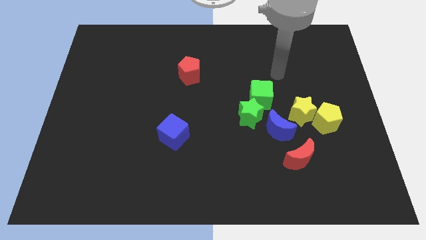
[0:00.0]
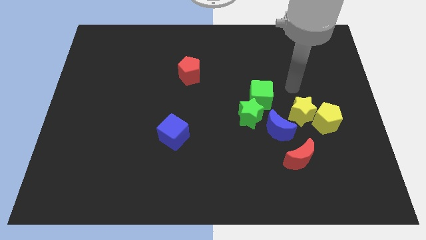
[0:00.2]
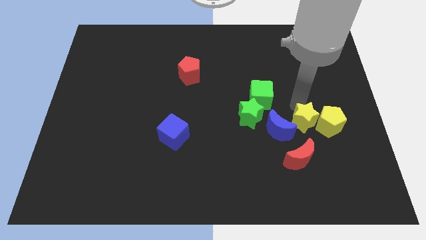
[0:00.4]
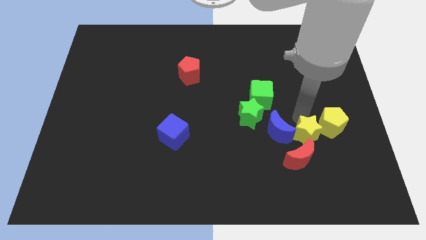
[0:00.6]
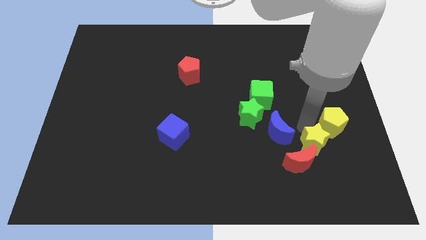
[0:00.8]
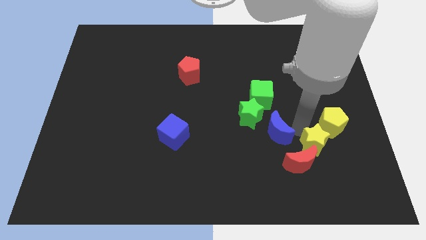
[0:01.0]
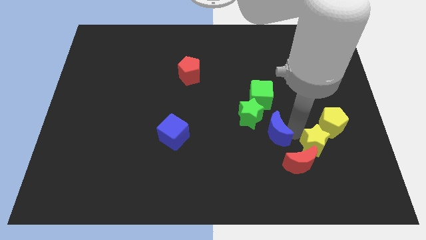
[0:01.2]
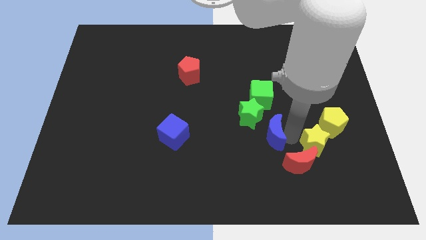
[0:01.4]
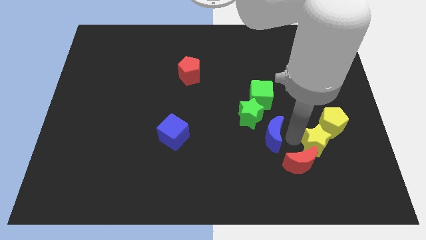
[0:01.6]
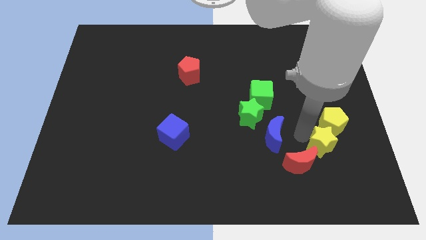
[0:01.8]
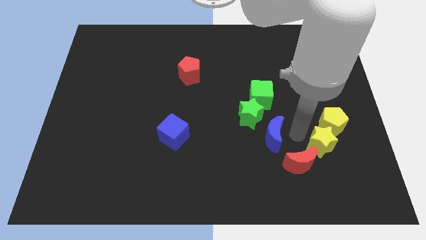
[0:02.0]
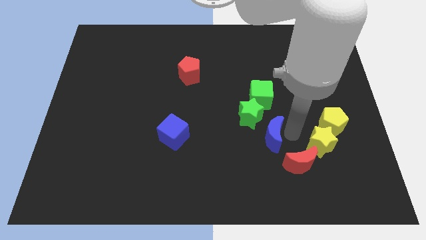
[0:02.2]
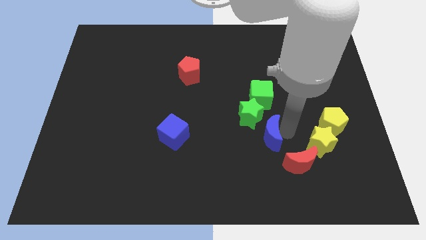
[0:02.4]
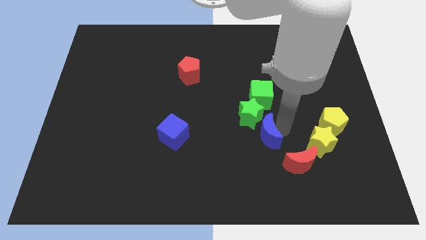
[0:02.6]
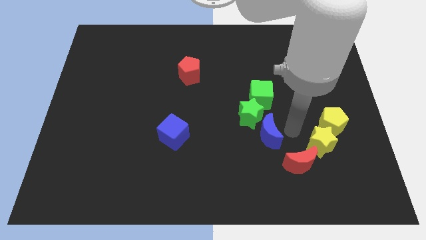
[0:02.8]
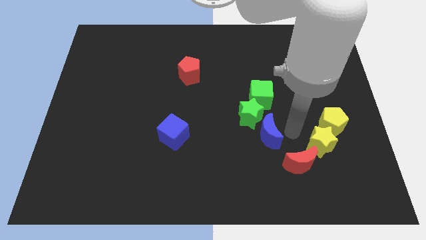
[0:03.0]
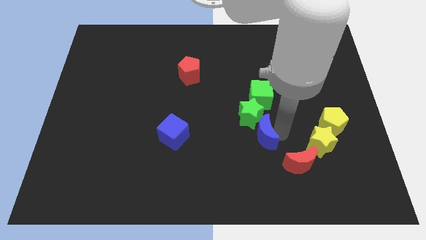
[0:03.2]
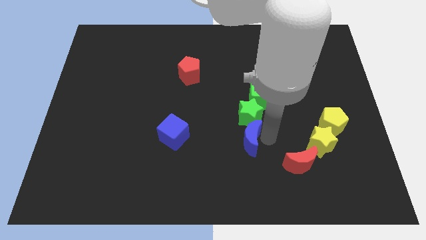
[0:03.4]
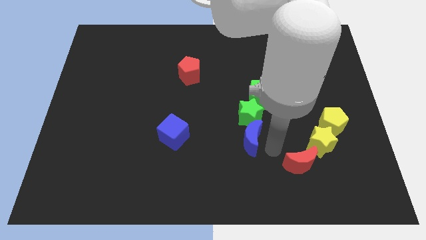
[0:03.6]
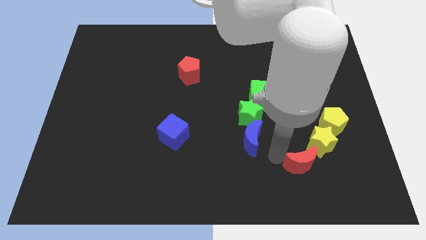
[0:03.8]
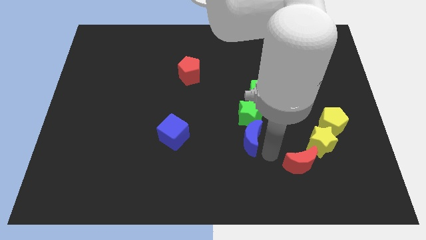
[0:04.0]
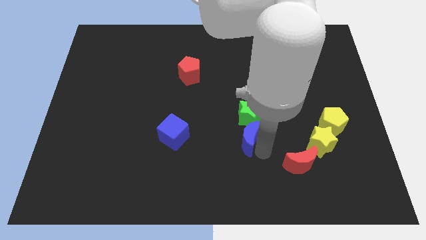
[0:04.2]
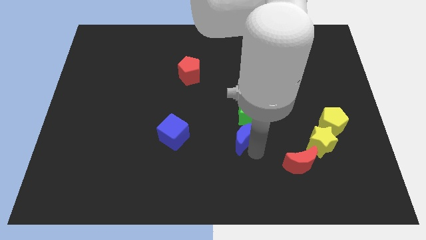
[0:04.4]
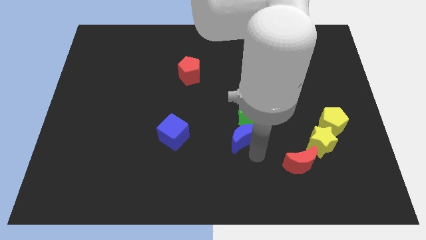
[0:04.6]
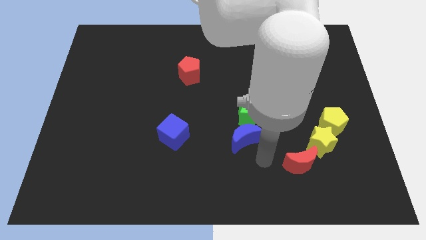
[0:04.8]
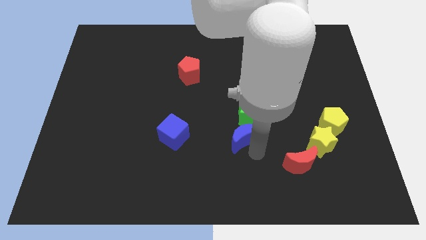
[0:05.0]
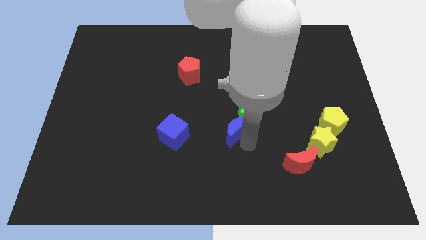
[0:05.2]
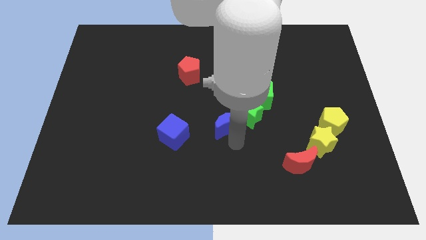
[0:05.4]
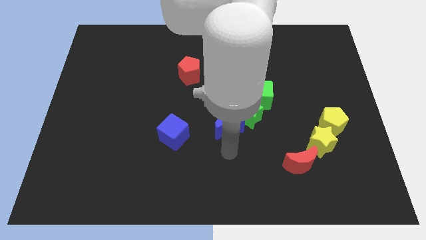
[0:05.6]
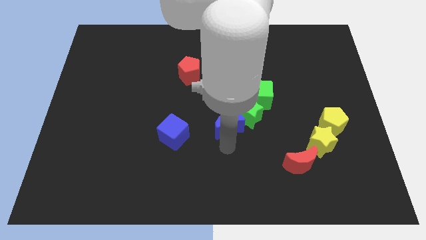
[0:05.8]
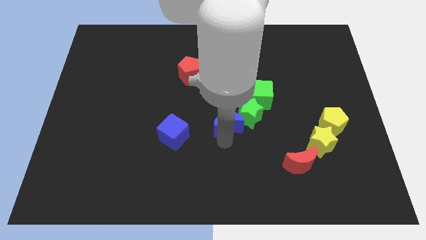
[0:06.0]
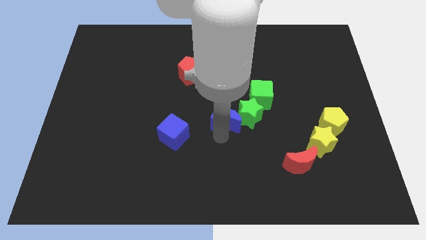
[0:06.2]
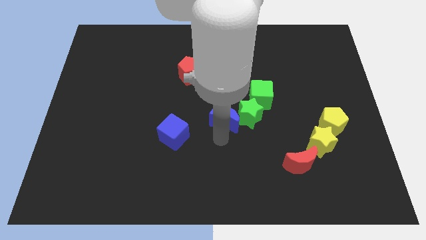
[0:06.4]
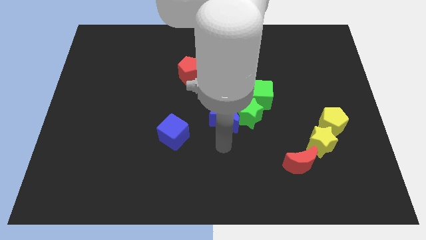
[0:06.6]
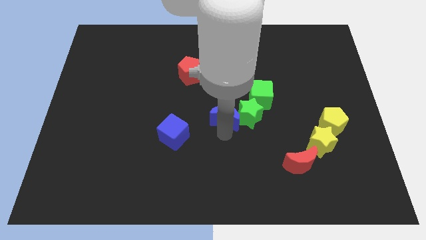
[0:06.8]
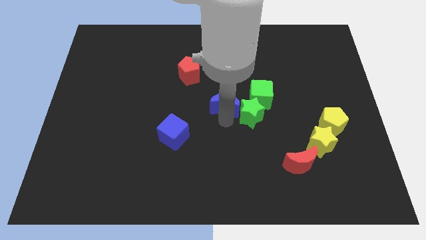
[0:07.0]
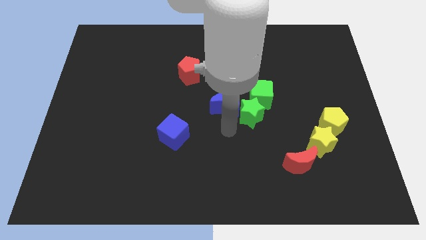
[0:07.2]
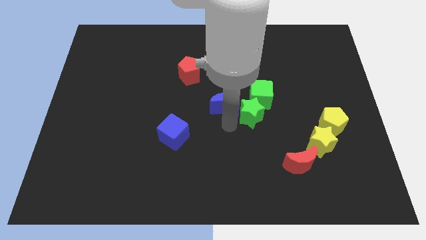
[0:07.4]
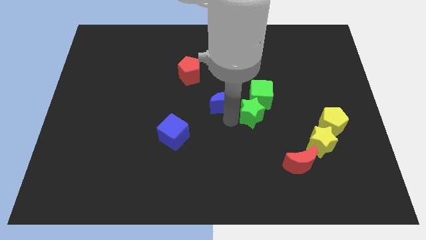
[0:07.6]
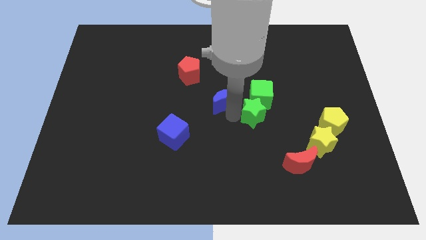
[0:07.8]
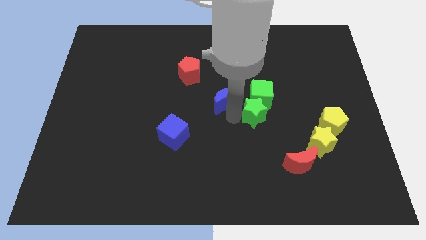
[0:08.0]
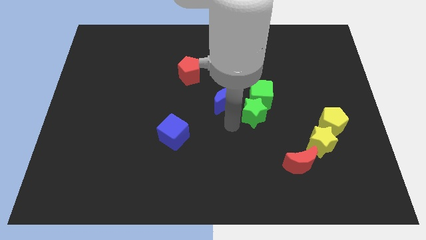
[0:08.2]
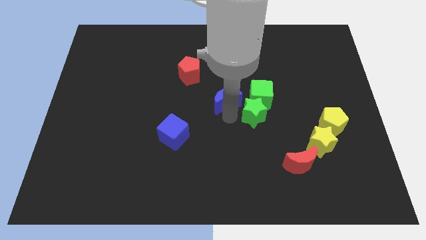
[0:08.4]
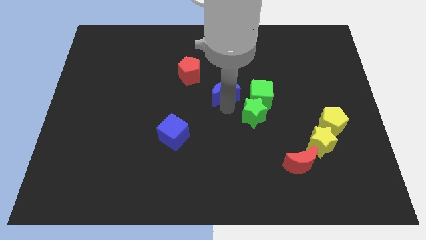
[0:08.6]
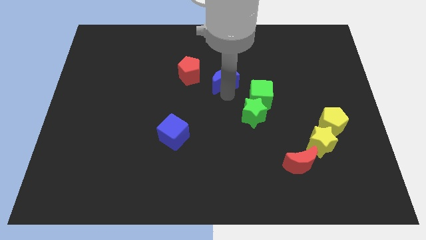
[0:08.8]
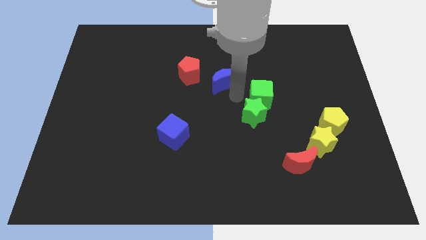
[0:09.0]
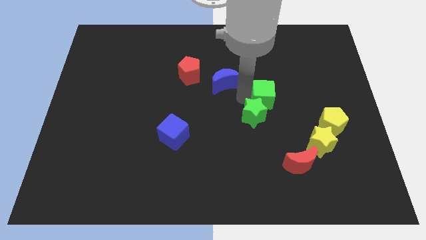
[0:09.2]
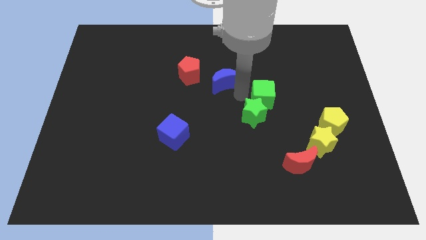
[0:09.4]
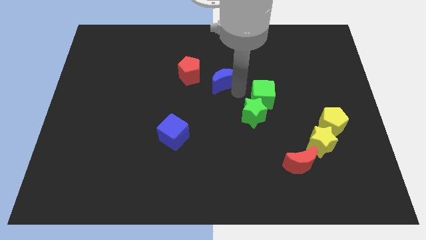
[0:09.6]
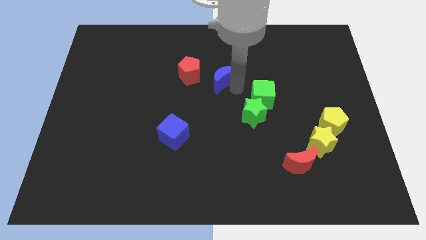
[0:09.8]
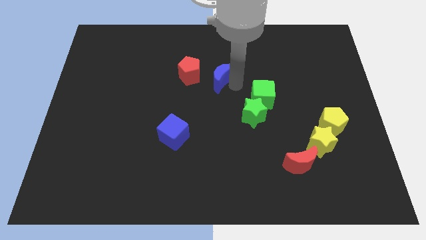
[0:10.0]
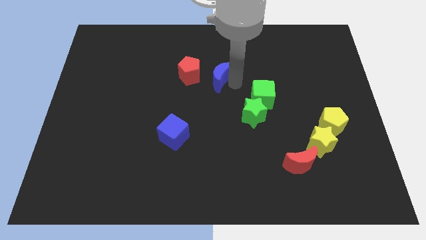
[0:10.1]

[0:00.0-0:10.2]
slide the blue moon diagonally up and left

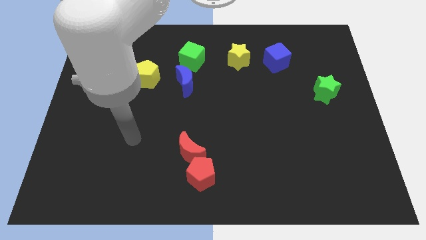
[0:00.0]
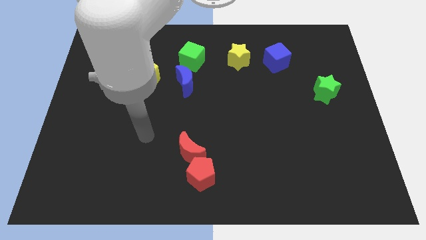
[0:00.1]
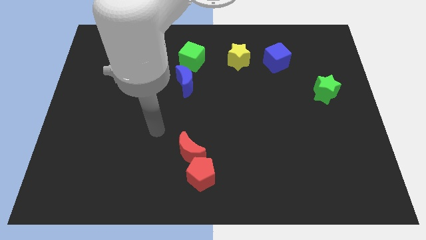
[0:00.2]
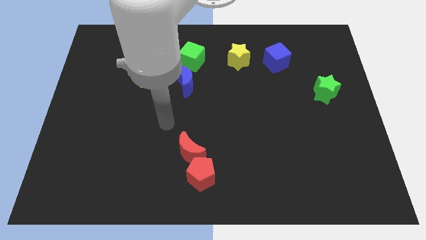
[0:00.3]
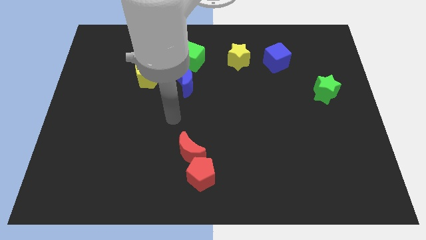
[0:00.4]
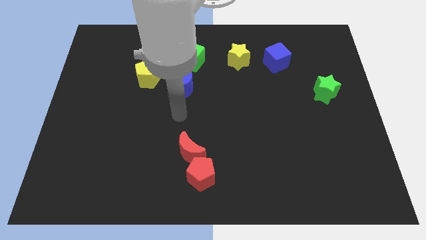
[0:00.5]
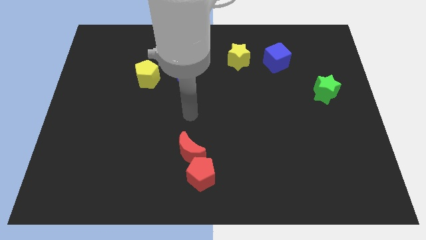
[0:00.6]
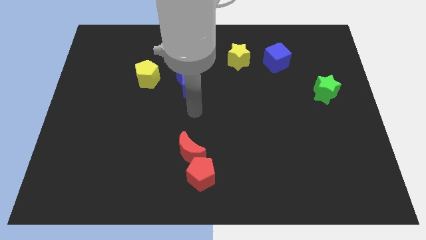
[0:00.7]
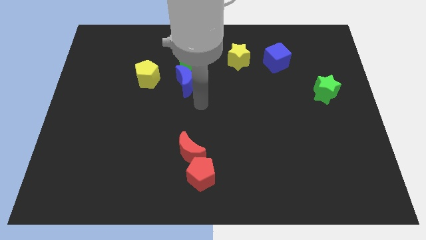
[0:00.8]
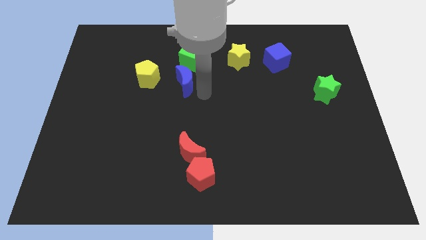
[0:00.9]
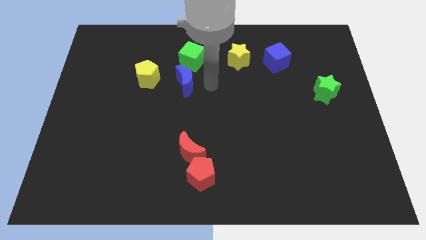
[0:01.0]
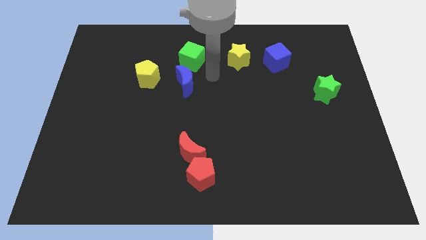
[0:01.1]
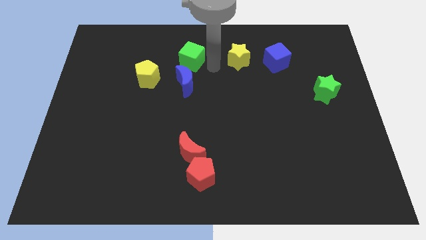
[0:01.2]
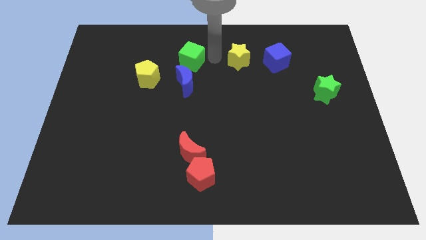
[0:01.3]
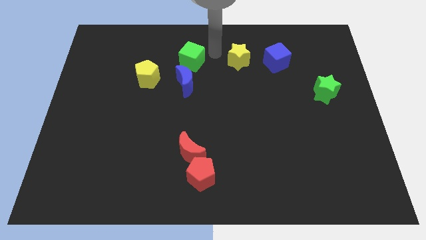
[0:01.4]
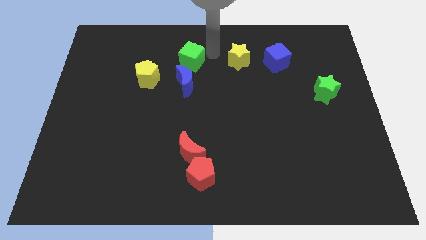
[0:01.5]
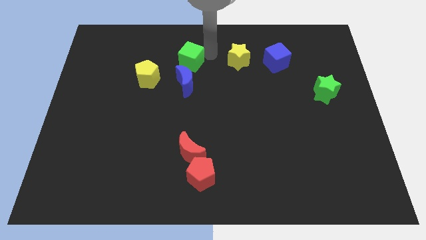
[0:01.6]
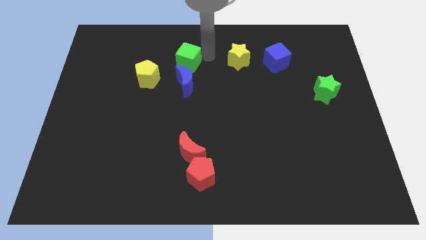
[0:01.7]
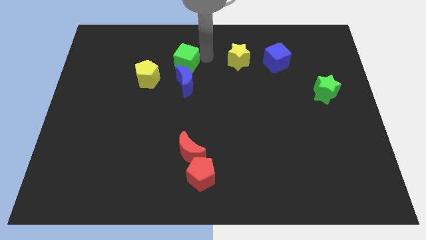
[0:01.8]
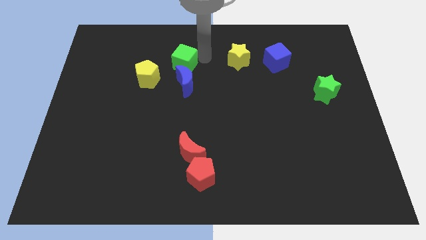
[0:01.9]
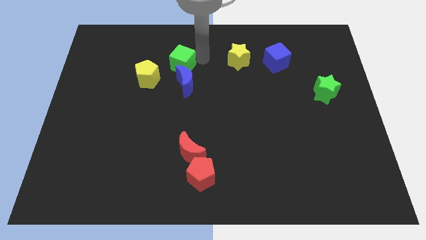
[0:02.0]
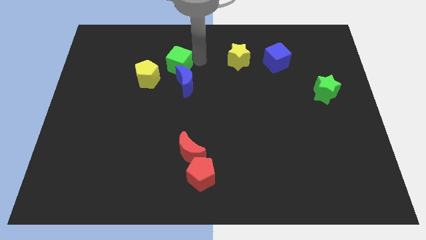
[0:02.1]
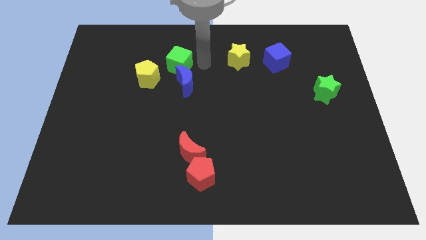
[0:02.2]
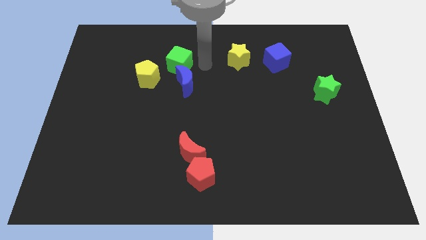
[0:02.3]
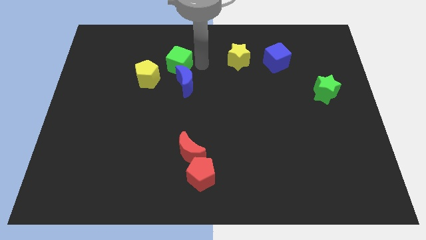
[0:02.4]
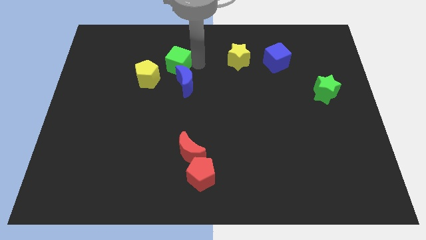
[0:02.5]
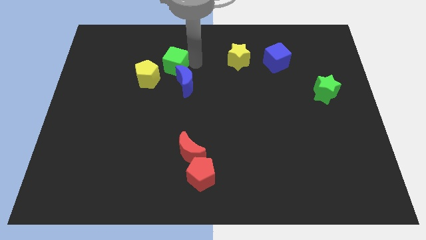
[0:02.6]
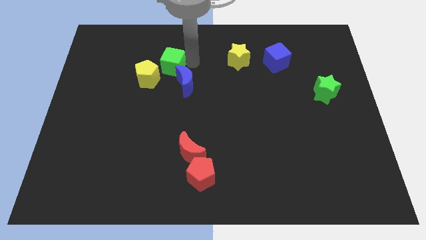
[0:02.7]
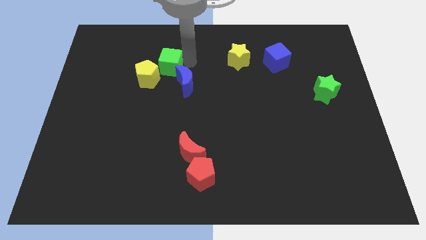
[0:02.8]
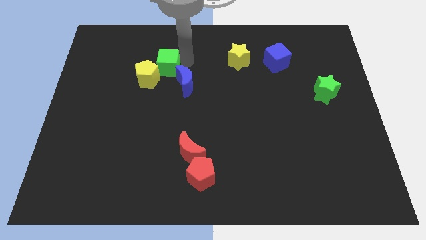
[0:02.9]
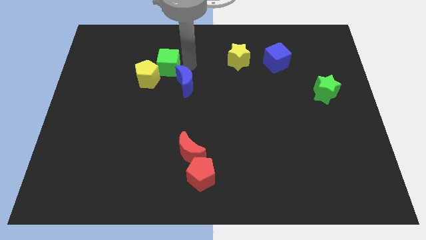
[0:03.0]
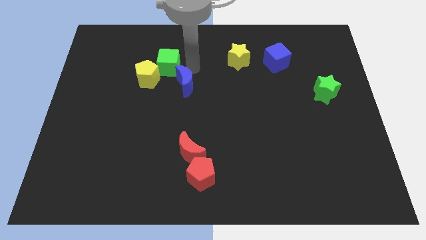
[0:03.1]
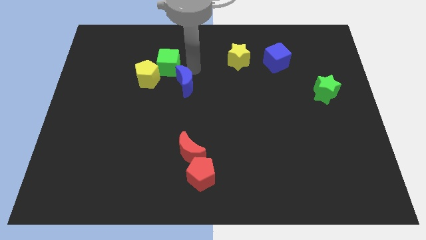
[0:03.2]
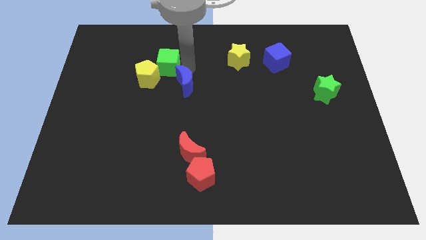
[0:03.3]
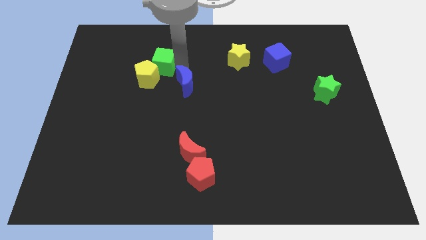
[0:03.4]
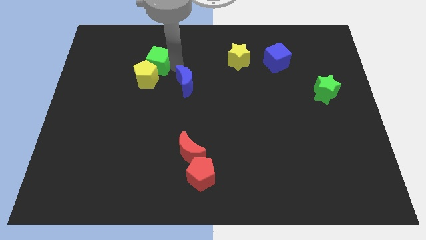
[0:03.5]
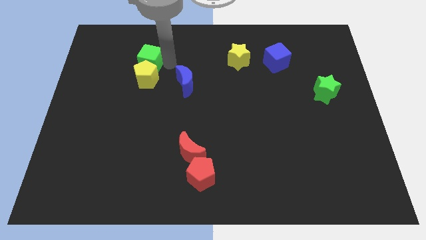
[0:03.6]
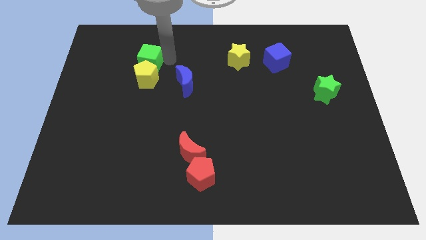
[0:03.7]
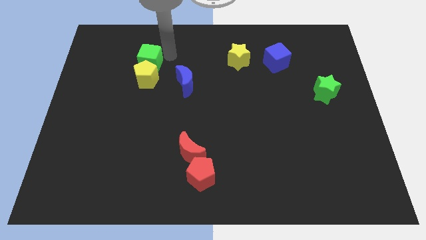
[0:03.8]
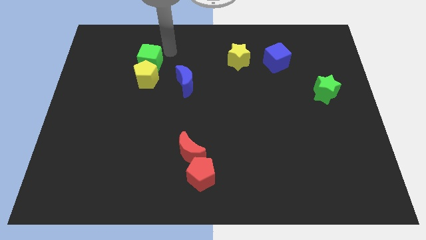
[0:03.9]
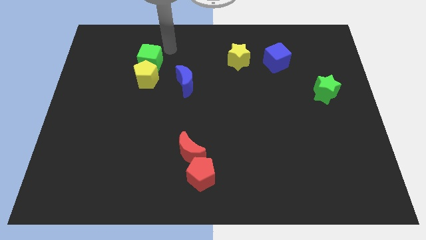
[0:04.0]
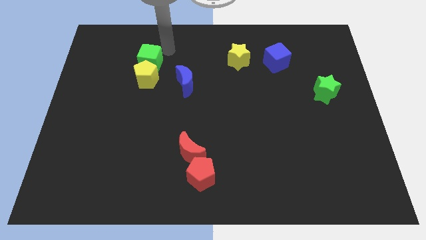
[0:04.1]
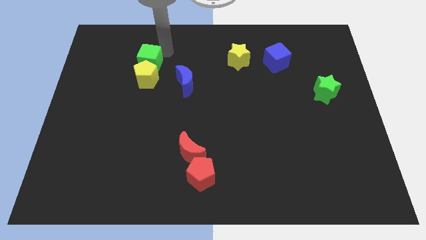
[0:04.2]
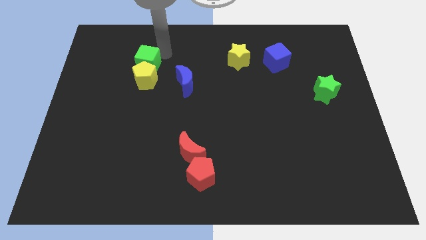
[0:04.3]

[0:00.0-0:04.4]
slide the green cube down and to the left somewhat
